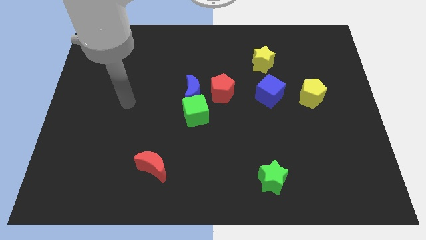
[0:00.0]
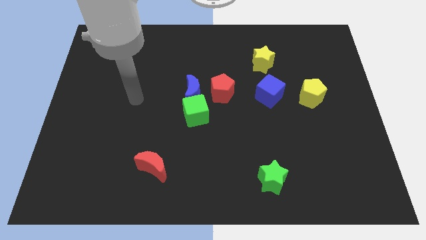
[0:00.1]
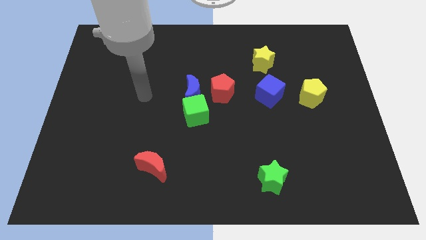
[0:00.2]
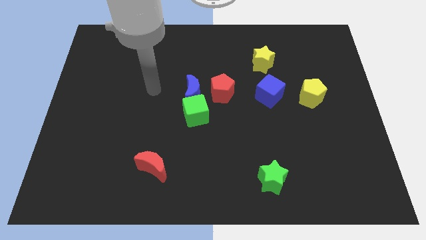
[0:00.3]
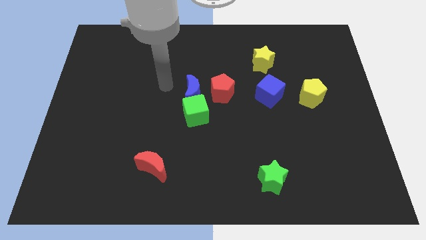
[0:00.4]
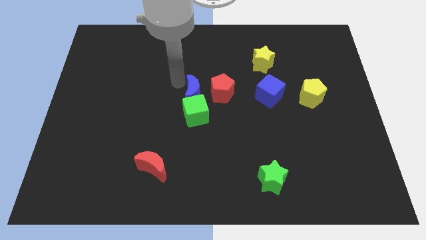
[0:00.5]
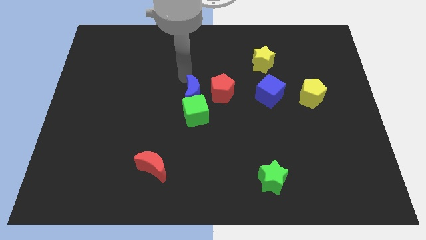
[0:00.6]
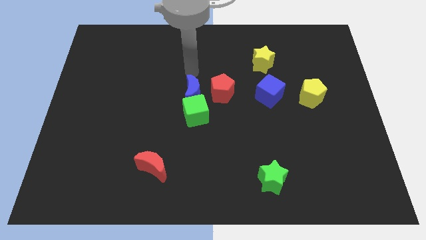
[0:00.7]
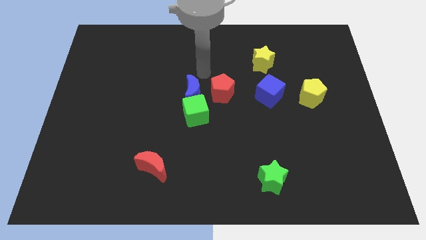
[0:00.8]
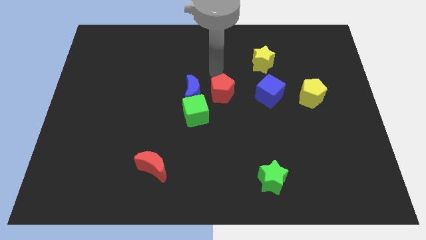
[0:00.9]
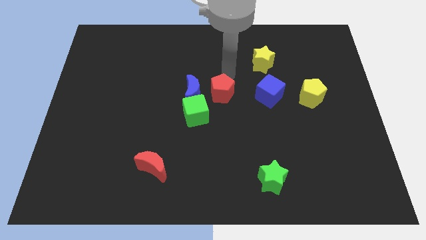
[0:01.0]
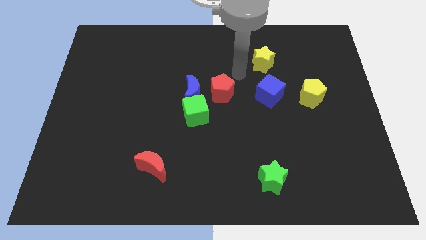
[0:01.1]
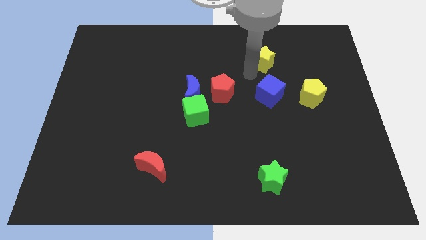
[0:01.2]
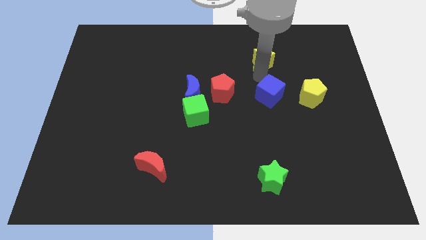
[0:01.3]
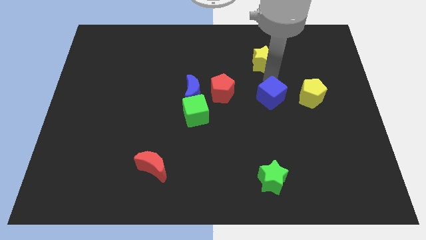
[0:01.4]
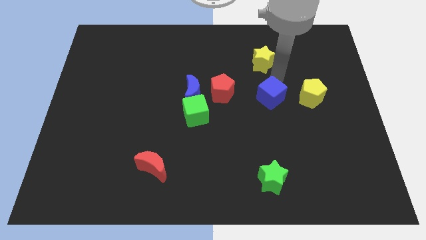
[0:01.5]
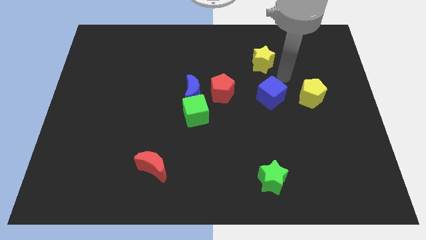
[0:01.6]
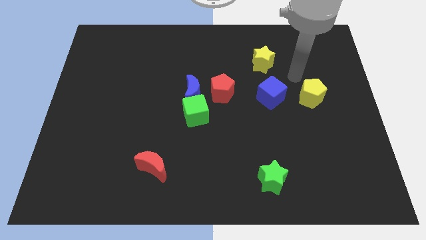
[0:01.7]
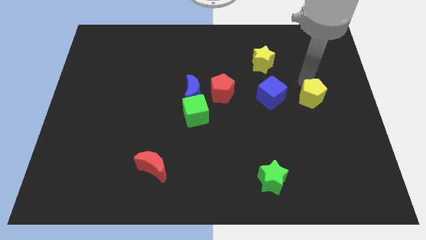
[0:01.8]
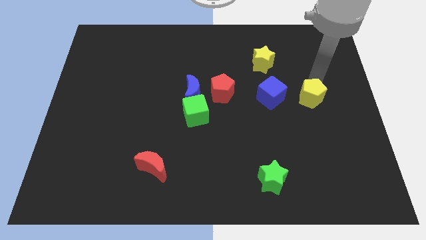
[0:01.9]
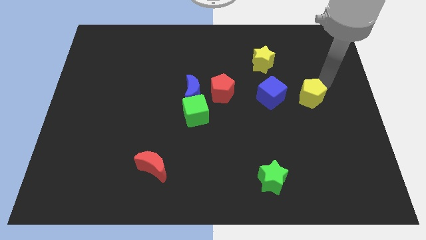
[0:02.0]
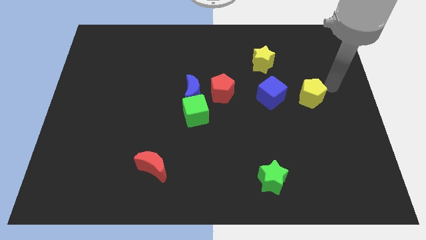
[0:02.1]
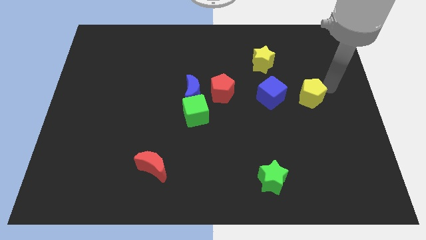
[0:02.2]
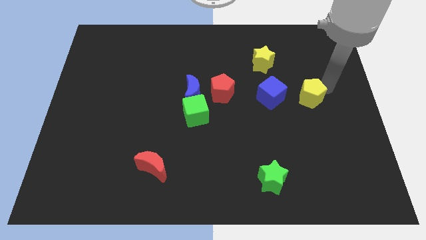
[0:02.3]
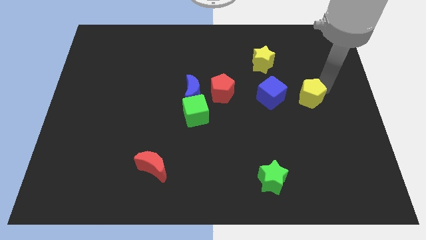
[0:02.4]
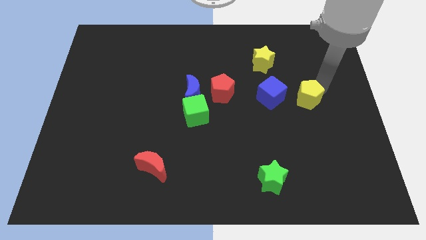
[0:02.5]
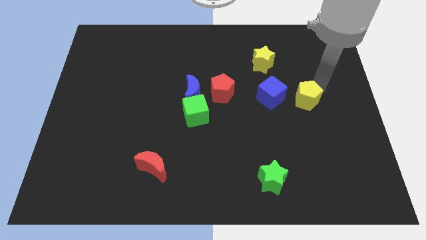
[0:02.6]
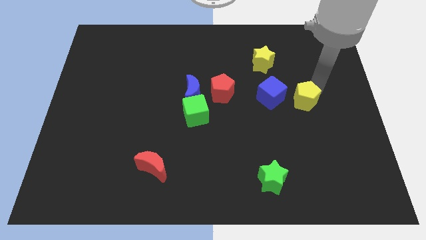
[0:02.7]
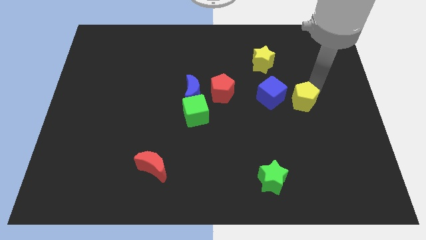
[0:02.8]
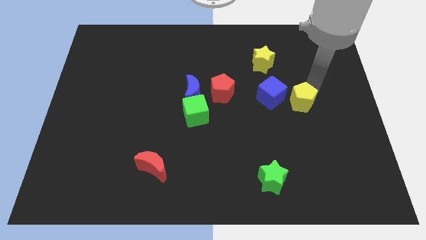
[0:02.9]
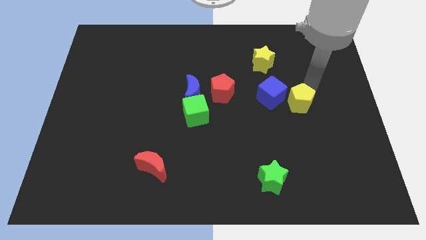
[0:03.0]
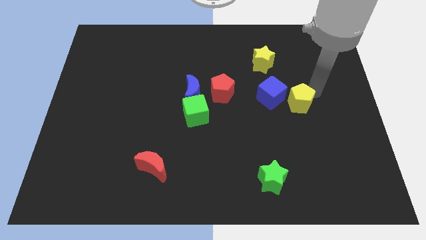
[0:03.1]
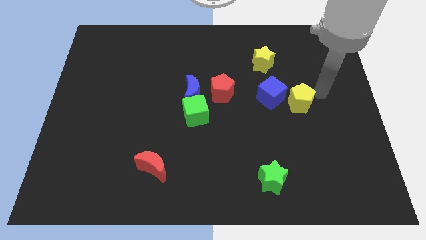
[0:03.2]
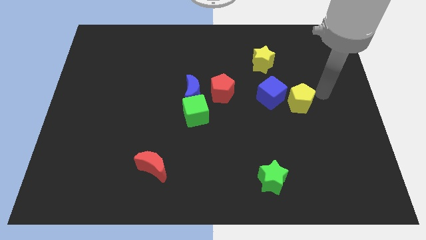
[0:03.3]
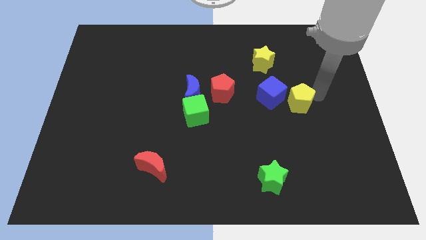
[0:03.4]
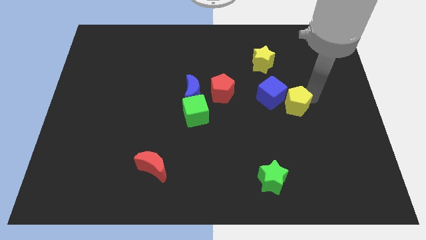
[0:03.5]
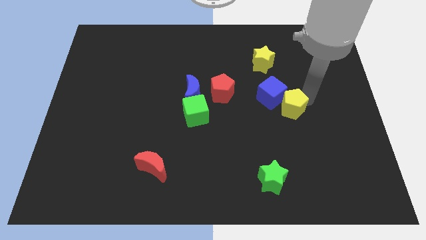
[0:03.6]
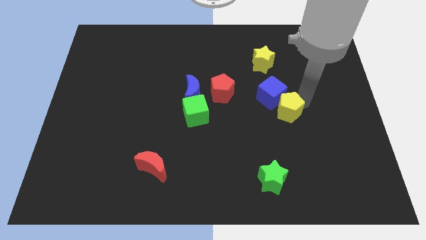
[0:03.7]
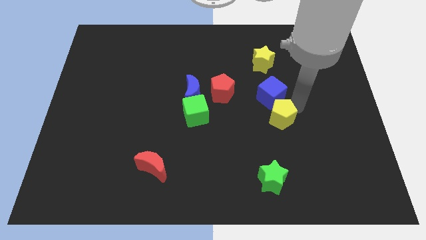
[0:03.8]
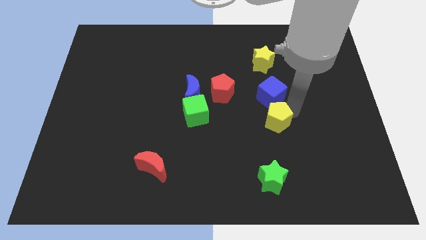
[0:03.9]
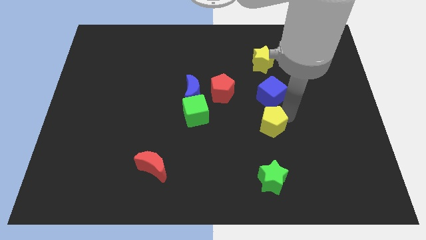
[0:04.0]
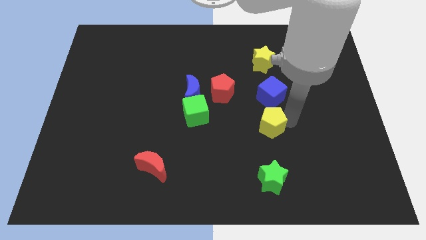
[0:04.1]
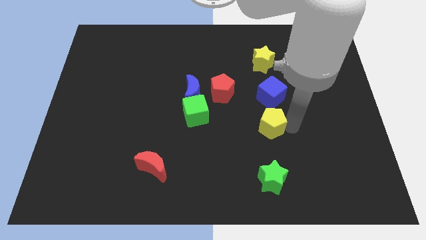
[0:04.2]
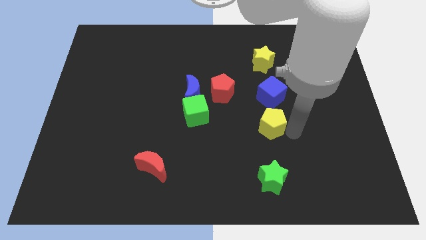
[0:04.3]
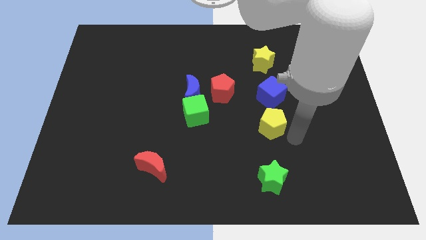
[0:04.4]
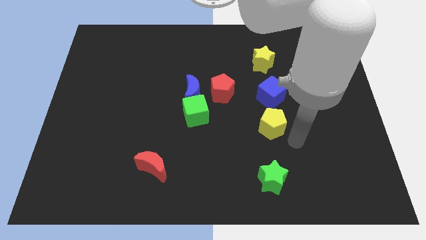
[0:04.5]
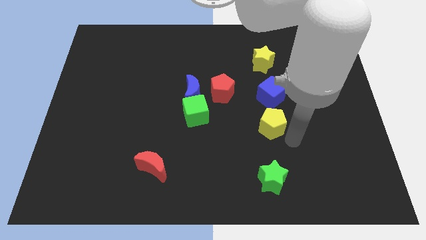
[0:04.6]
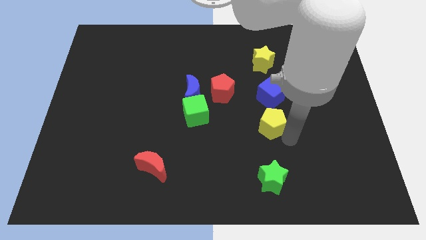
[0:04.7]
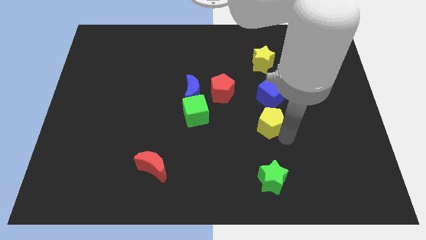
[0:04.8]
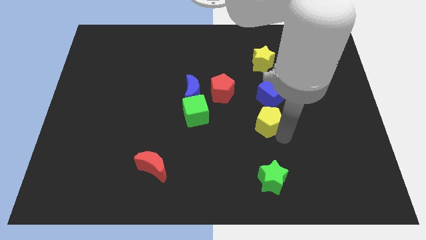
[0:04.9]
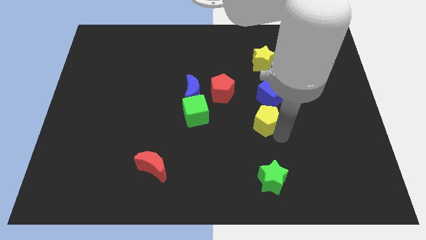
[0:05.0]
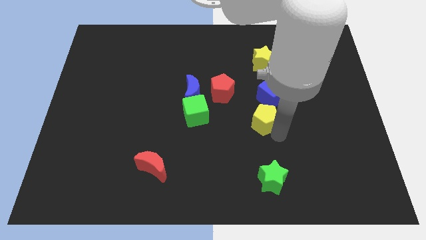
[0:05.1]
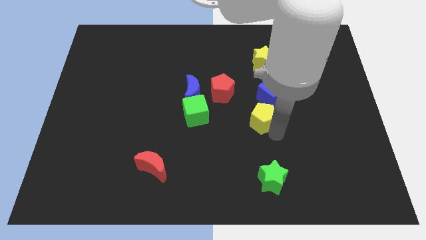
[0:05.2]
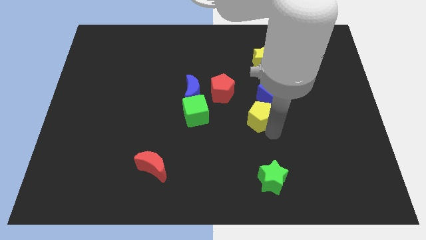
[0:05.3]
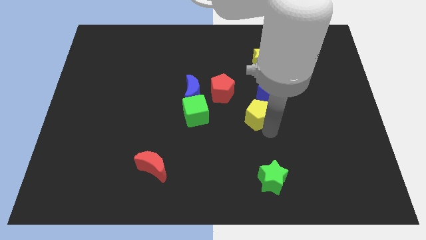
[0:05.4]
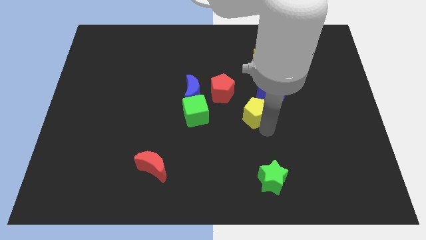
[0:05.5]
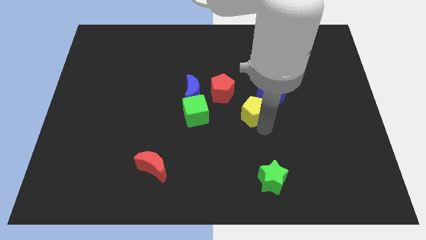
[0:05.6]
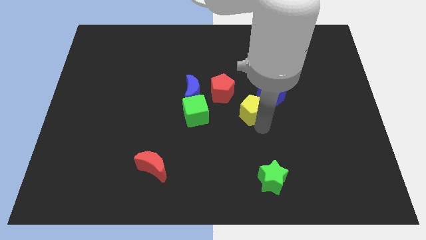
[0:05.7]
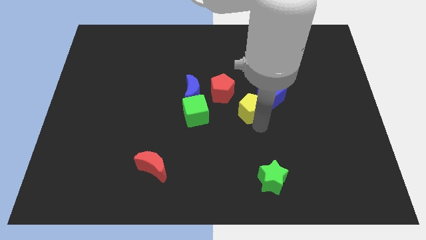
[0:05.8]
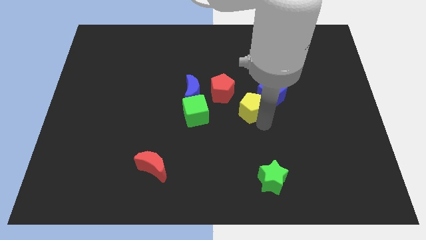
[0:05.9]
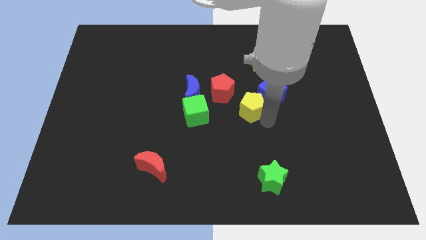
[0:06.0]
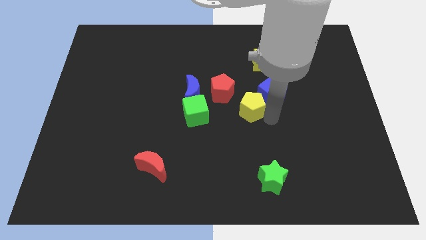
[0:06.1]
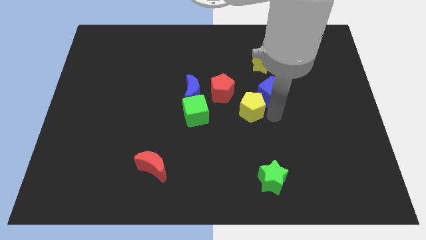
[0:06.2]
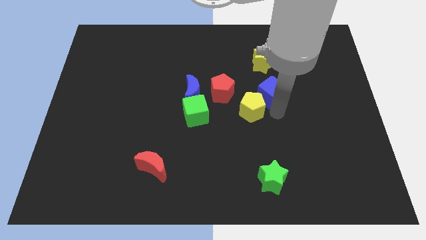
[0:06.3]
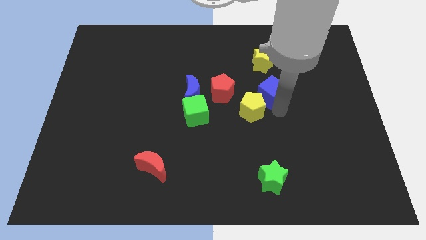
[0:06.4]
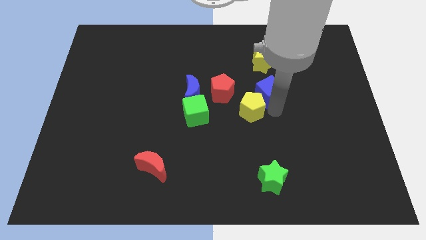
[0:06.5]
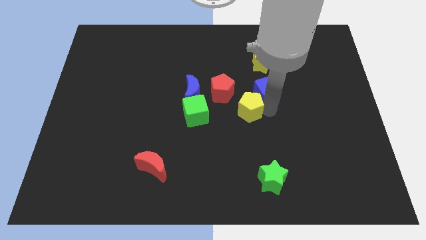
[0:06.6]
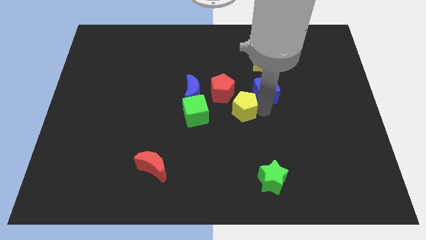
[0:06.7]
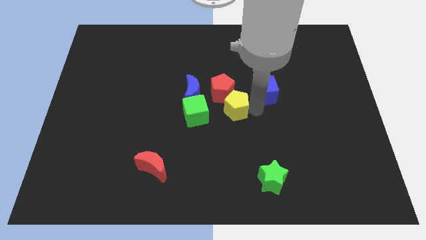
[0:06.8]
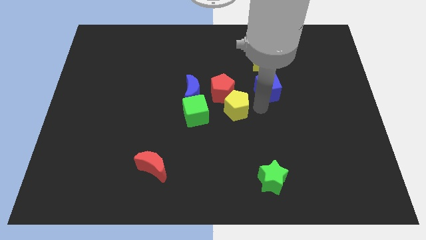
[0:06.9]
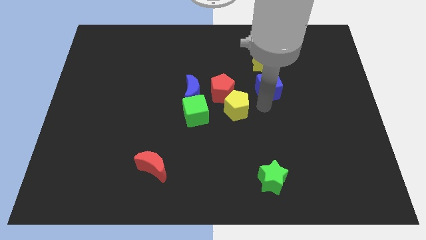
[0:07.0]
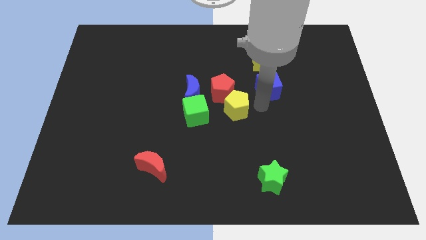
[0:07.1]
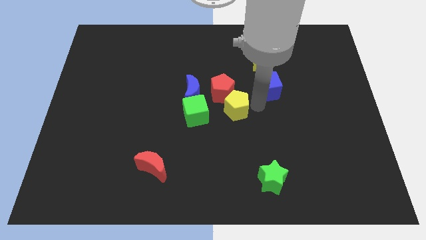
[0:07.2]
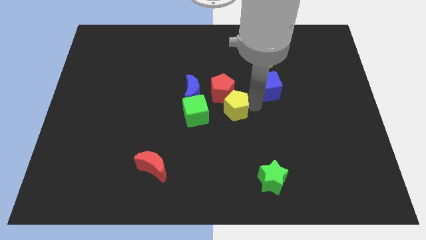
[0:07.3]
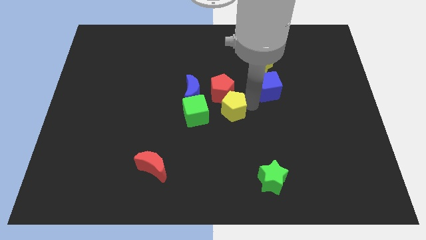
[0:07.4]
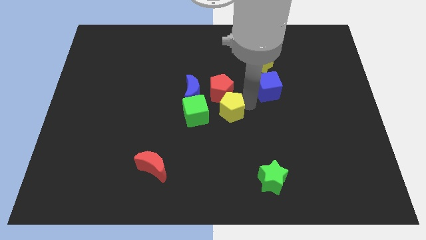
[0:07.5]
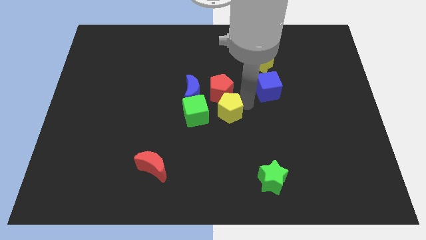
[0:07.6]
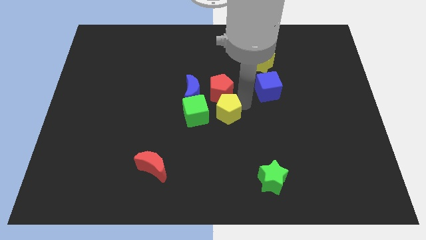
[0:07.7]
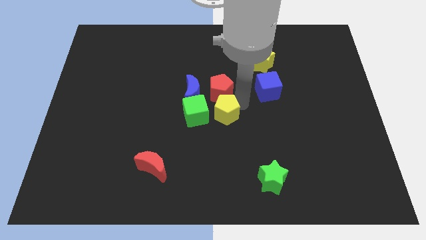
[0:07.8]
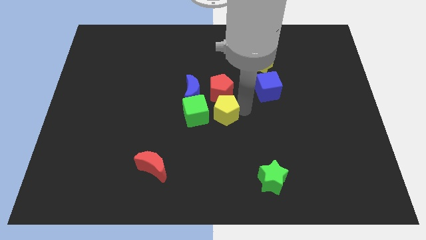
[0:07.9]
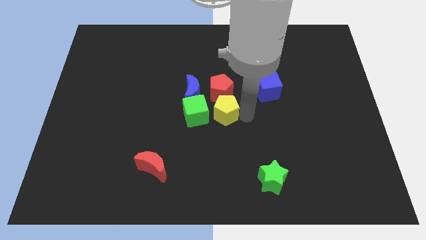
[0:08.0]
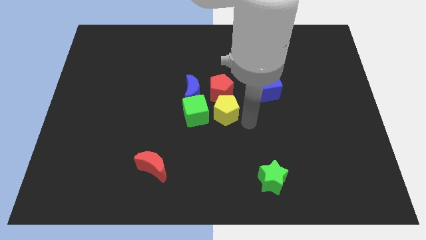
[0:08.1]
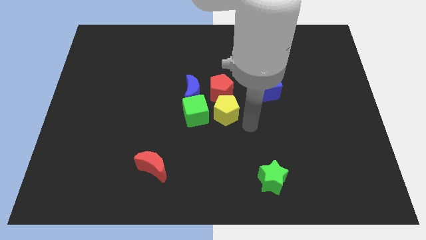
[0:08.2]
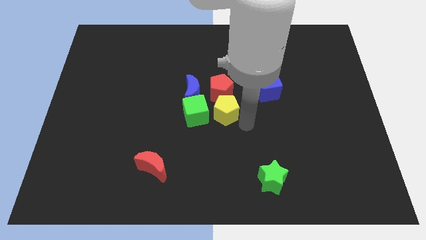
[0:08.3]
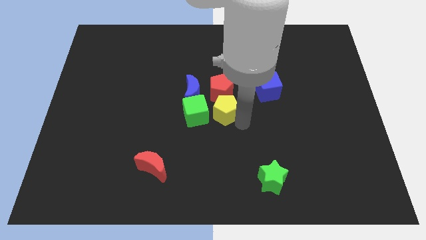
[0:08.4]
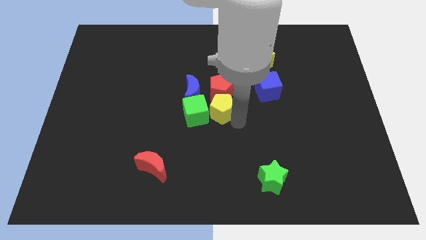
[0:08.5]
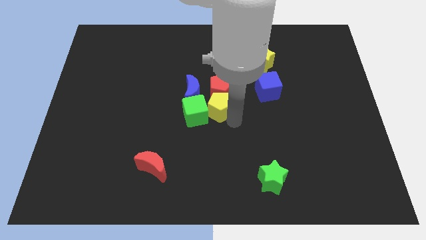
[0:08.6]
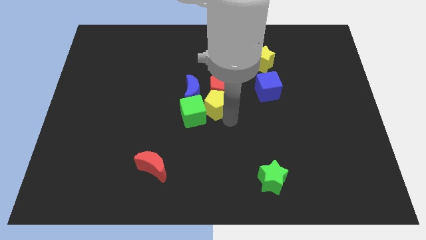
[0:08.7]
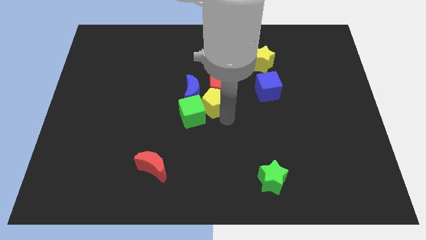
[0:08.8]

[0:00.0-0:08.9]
move the yellow pentagon to the blue moon
